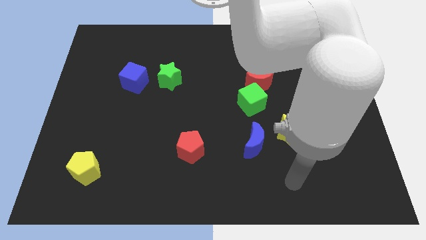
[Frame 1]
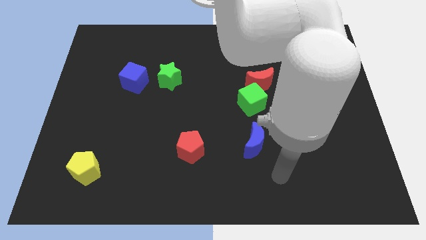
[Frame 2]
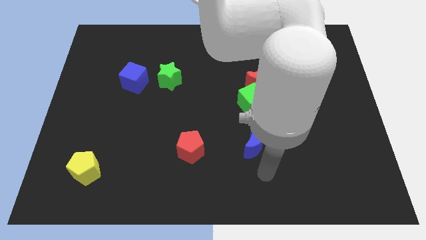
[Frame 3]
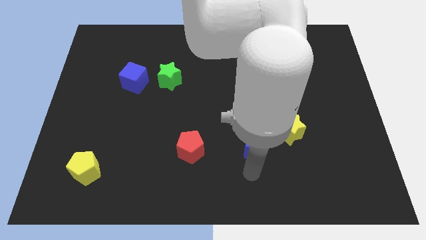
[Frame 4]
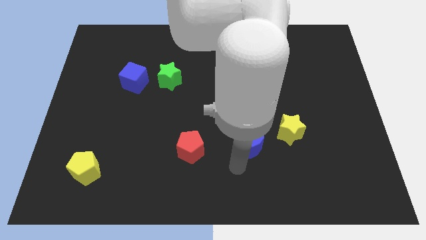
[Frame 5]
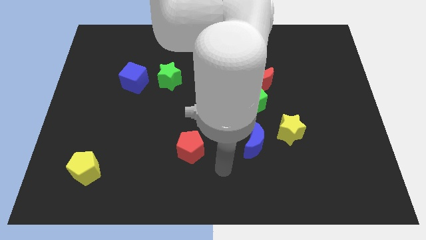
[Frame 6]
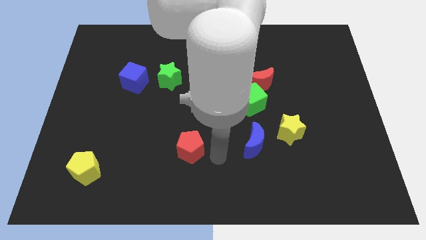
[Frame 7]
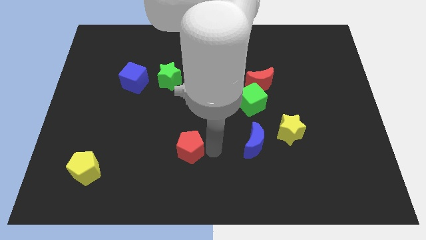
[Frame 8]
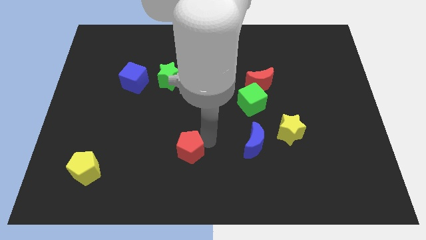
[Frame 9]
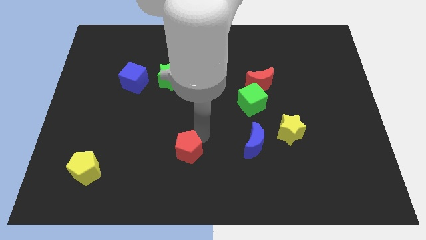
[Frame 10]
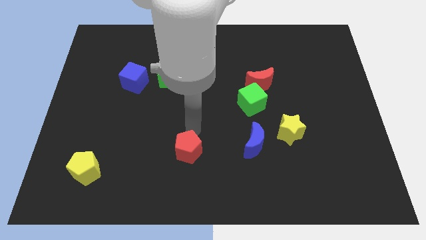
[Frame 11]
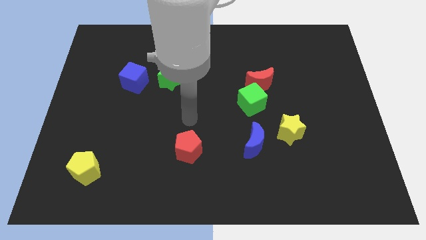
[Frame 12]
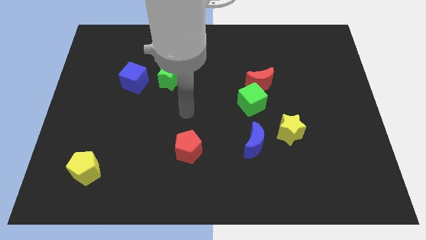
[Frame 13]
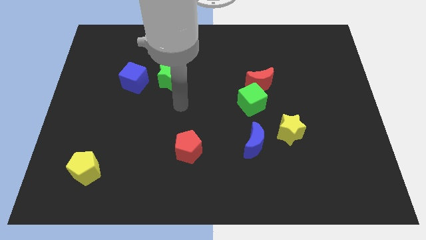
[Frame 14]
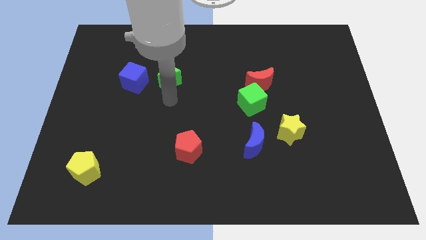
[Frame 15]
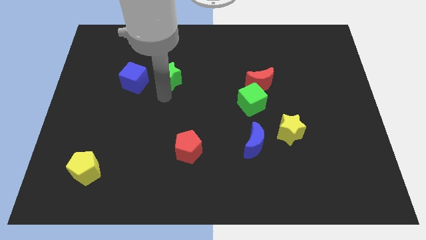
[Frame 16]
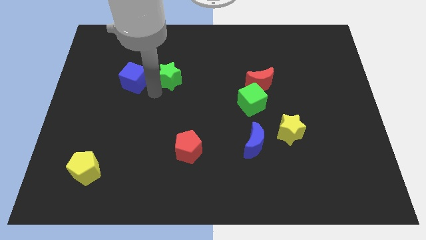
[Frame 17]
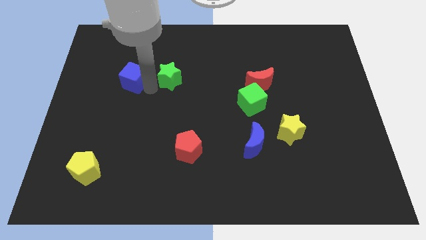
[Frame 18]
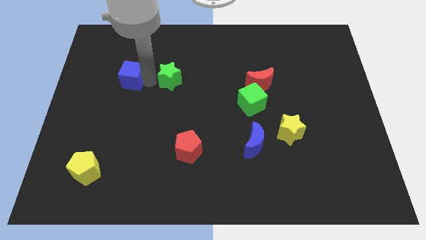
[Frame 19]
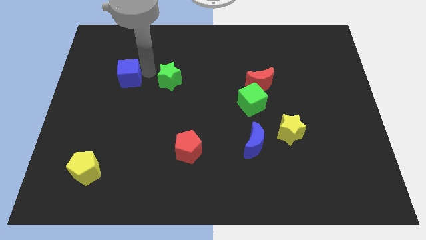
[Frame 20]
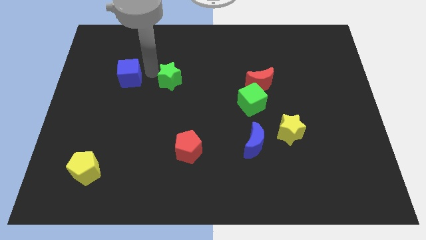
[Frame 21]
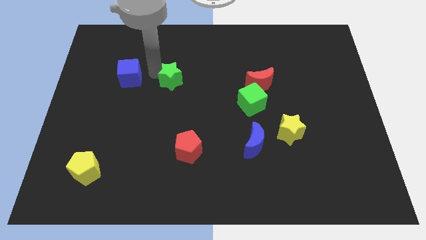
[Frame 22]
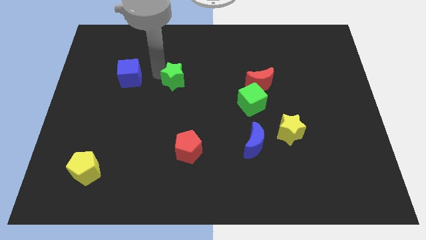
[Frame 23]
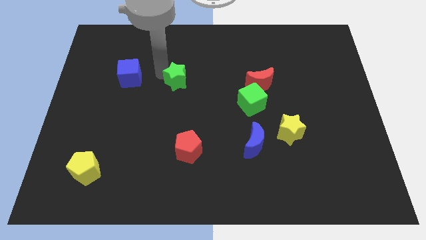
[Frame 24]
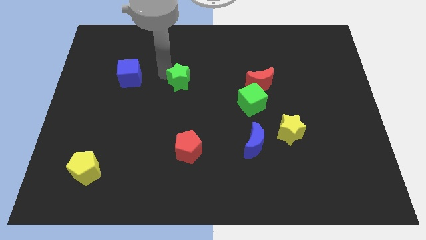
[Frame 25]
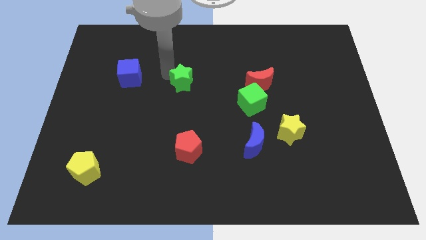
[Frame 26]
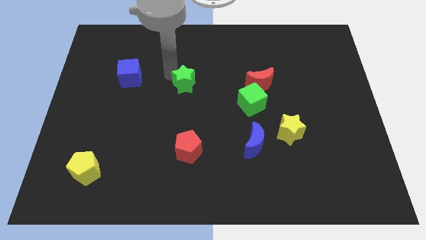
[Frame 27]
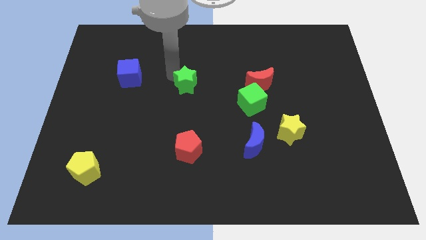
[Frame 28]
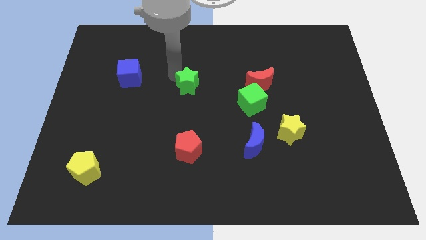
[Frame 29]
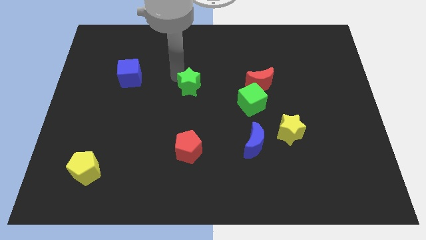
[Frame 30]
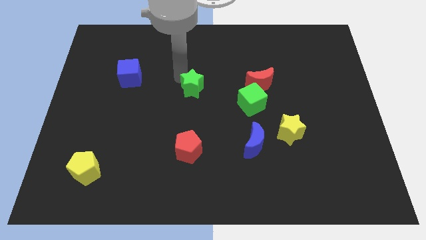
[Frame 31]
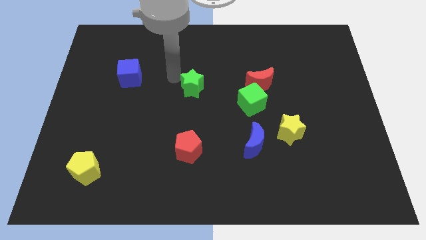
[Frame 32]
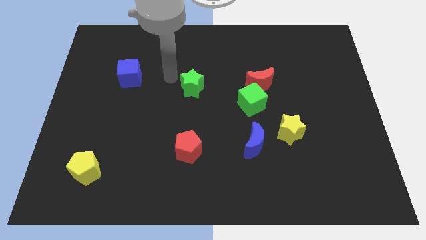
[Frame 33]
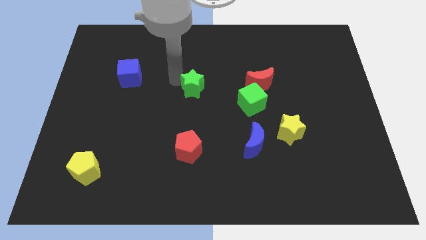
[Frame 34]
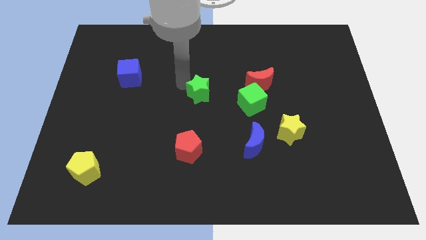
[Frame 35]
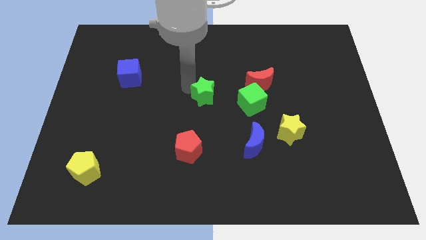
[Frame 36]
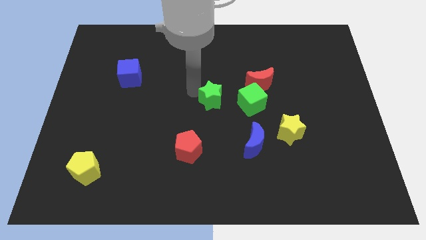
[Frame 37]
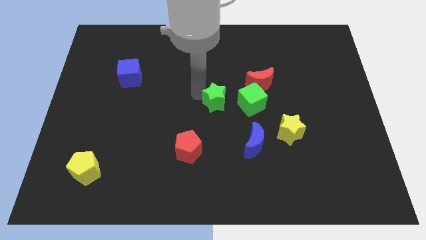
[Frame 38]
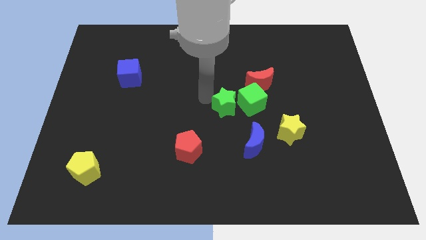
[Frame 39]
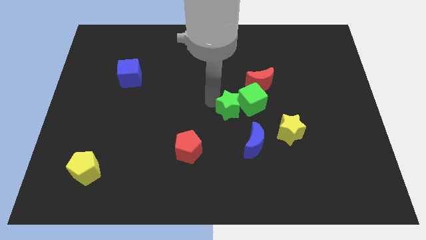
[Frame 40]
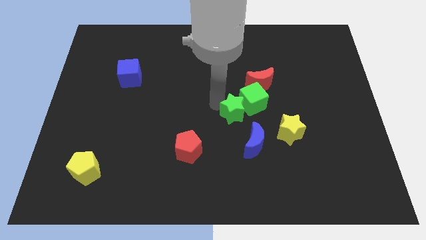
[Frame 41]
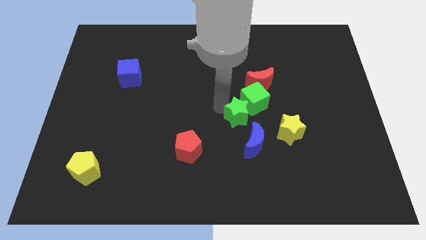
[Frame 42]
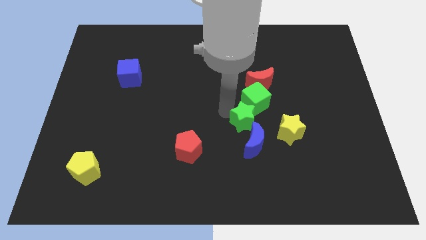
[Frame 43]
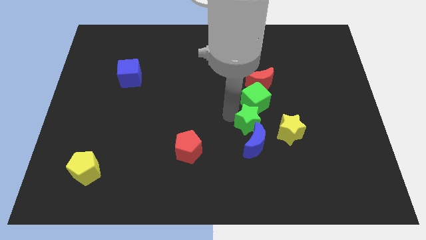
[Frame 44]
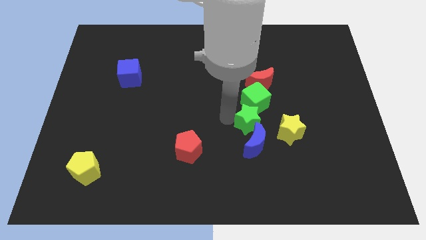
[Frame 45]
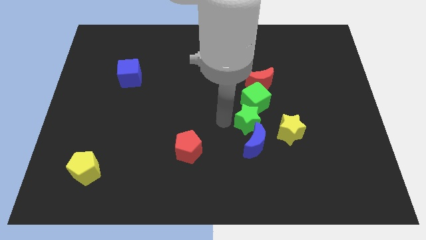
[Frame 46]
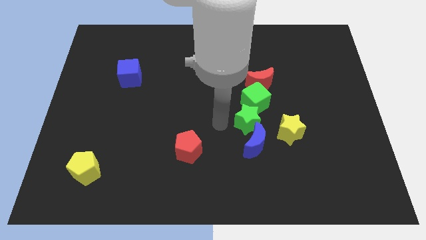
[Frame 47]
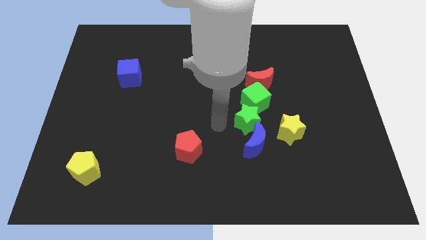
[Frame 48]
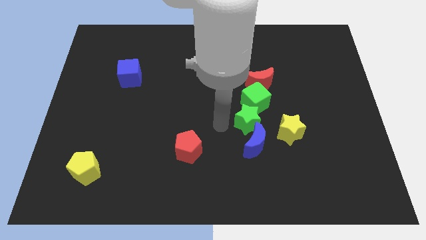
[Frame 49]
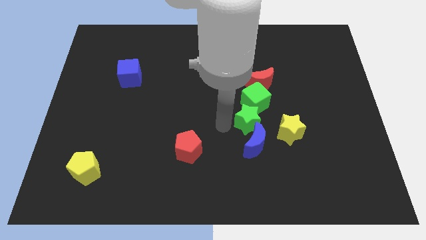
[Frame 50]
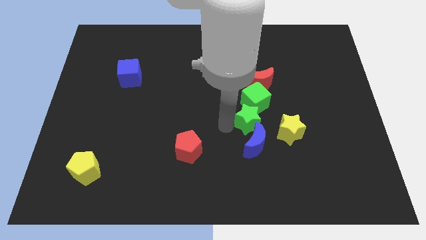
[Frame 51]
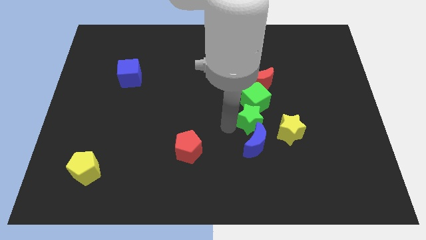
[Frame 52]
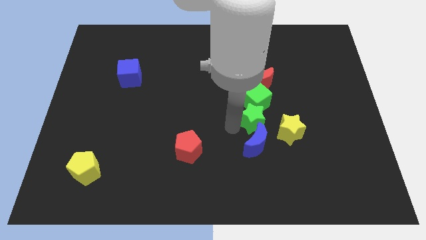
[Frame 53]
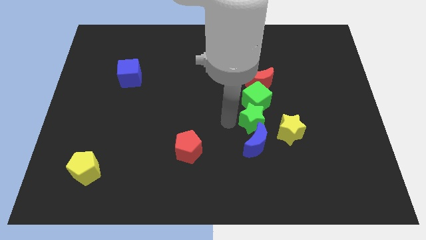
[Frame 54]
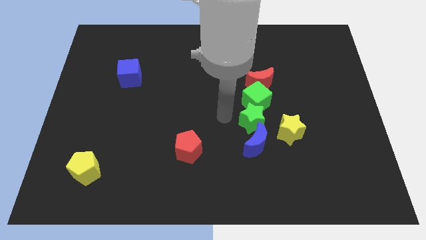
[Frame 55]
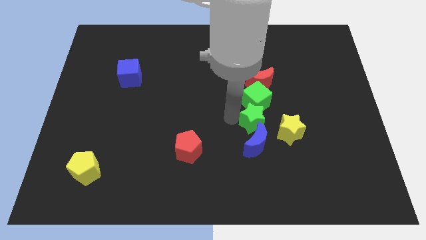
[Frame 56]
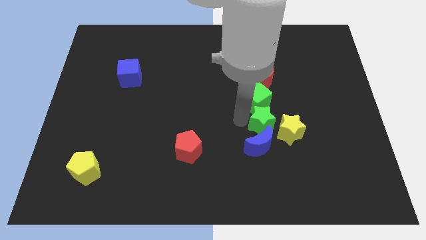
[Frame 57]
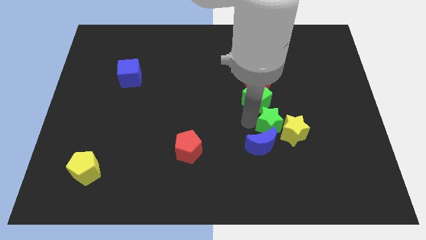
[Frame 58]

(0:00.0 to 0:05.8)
move the green star close to the yellow star

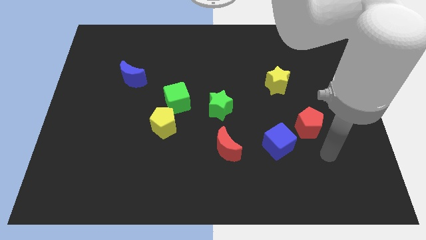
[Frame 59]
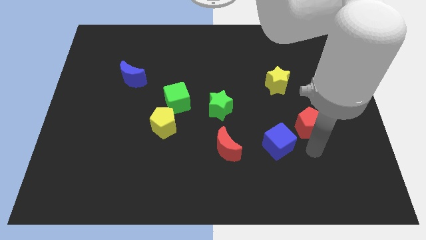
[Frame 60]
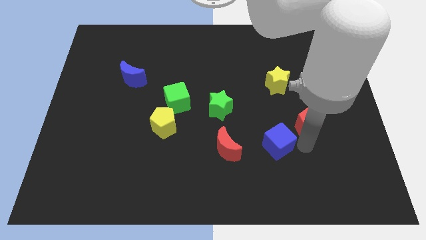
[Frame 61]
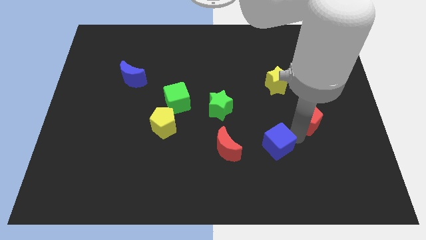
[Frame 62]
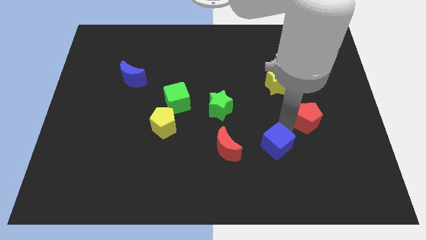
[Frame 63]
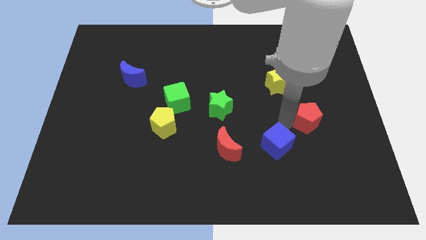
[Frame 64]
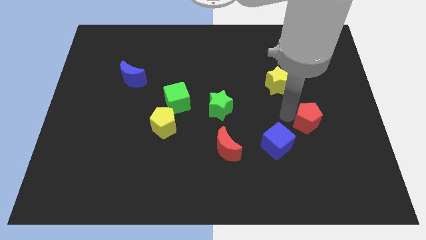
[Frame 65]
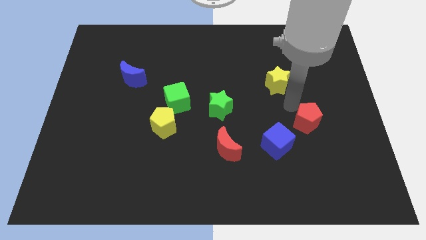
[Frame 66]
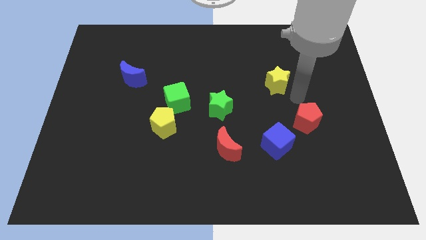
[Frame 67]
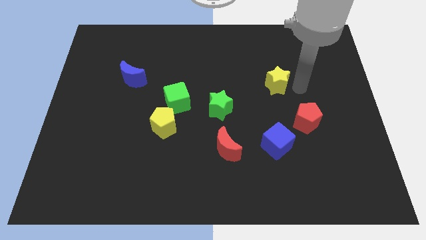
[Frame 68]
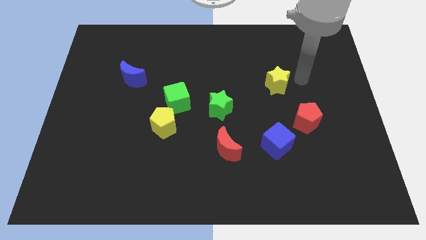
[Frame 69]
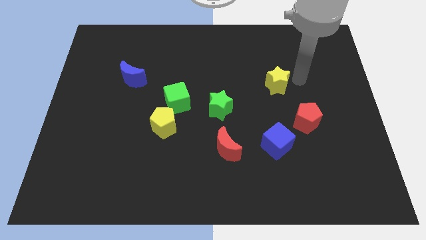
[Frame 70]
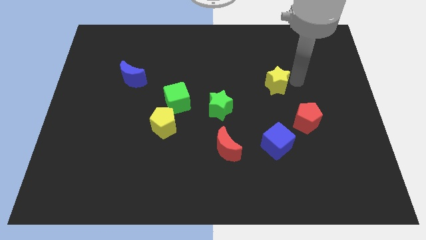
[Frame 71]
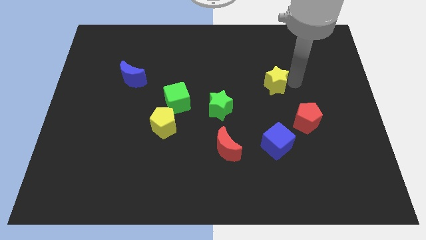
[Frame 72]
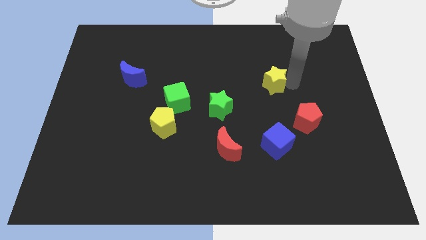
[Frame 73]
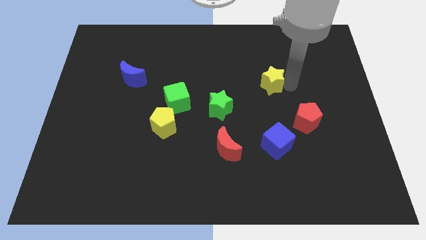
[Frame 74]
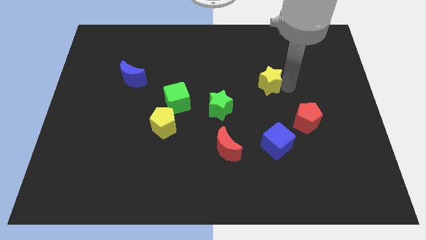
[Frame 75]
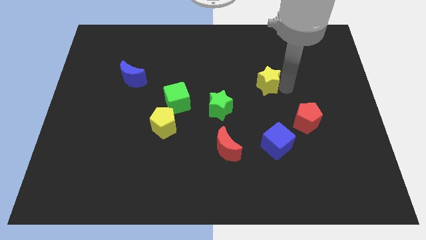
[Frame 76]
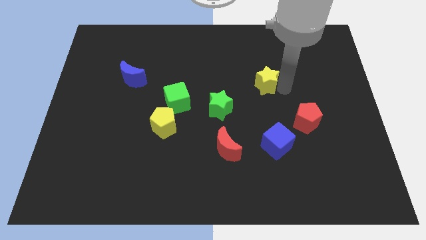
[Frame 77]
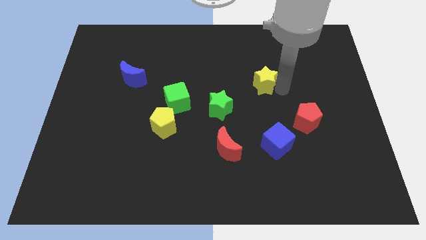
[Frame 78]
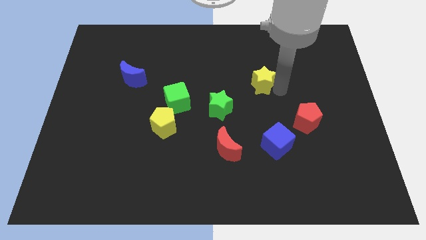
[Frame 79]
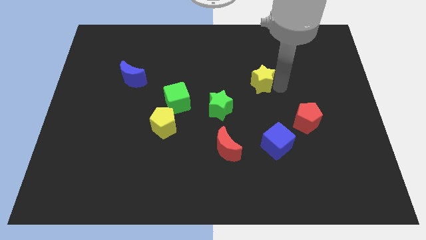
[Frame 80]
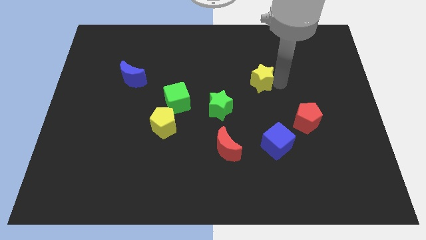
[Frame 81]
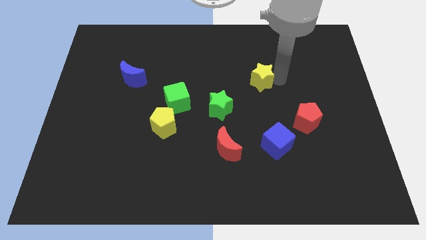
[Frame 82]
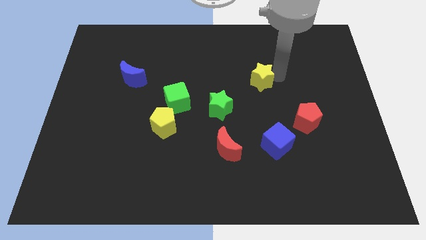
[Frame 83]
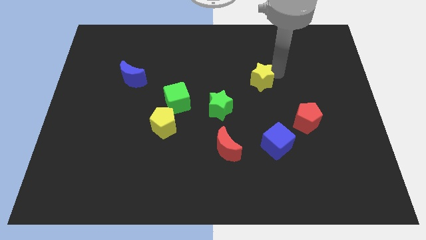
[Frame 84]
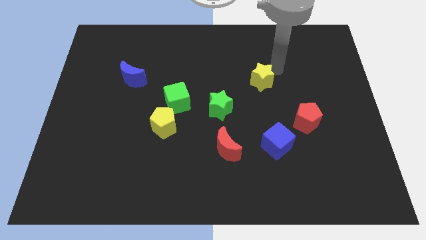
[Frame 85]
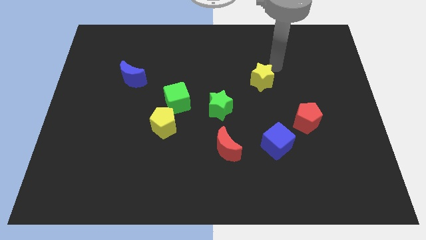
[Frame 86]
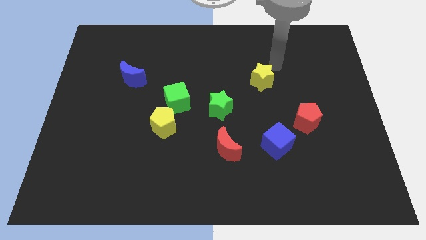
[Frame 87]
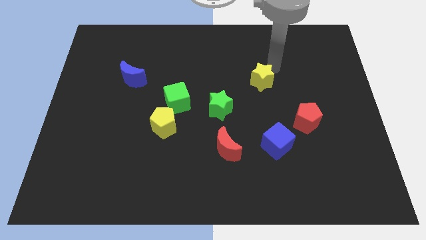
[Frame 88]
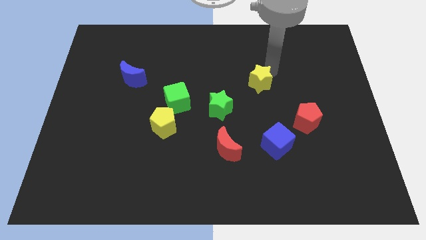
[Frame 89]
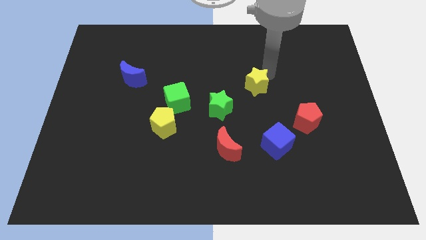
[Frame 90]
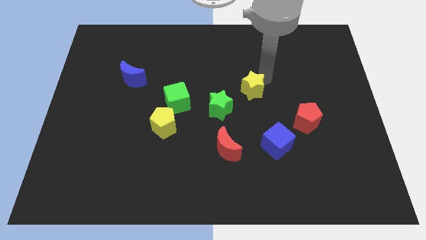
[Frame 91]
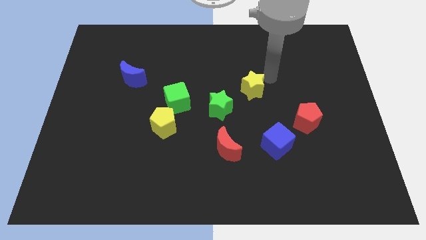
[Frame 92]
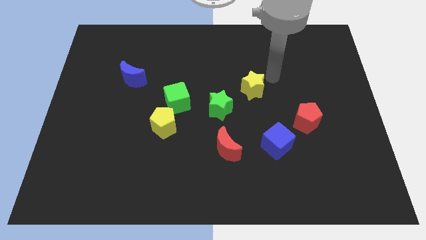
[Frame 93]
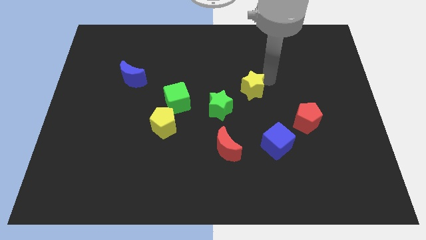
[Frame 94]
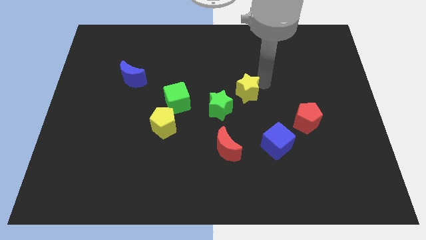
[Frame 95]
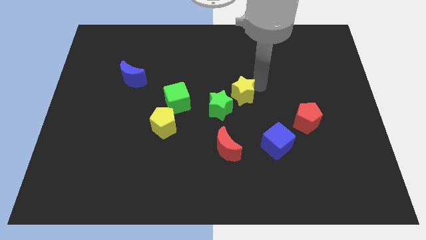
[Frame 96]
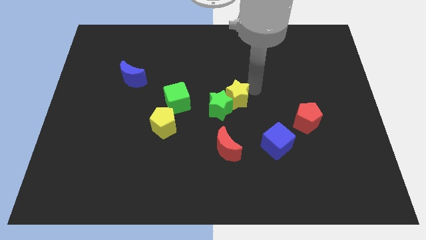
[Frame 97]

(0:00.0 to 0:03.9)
move the yellow star to the green star
